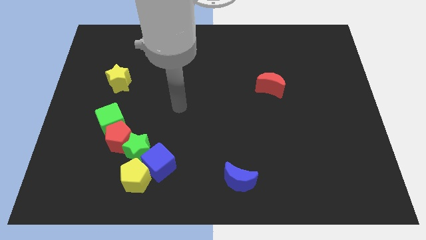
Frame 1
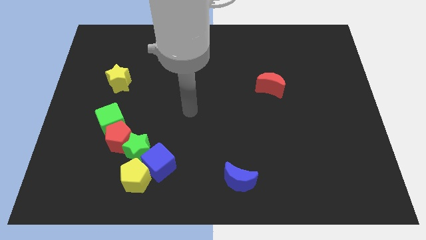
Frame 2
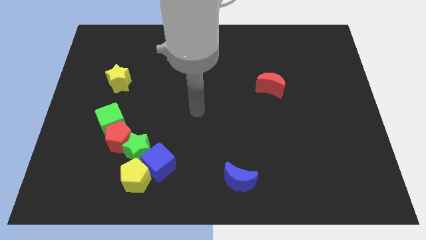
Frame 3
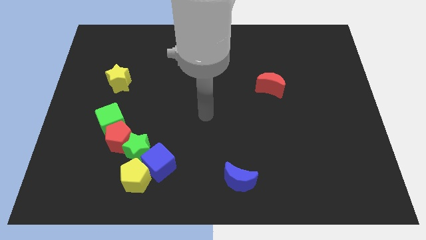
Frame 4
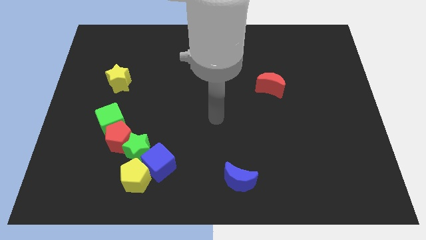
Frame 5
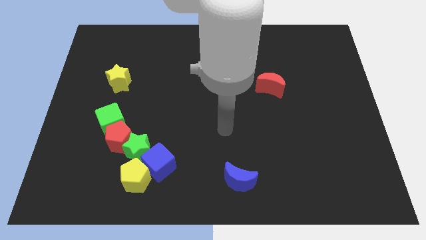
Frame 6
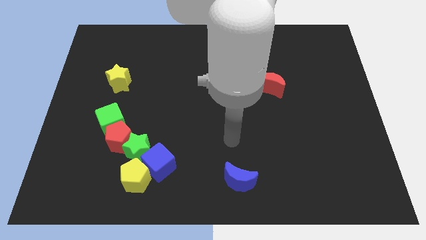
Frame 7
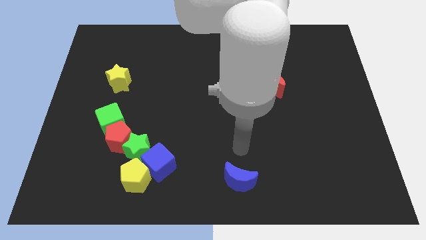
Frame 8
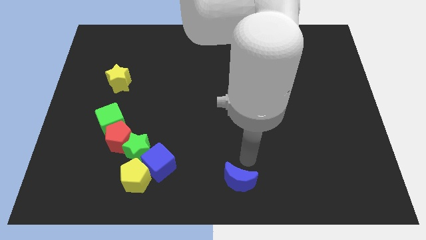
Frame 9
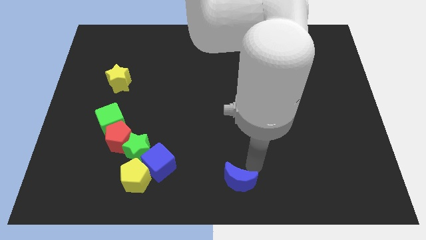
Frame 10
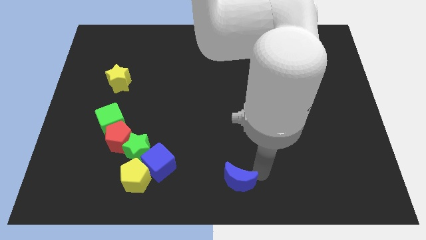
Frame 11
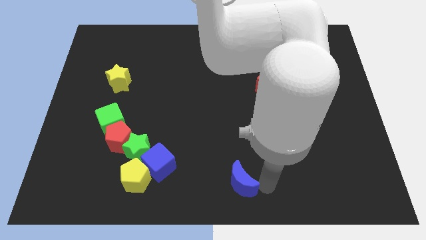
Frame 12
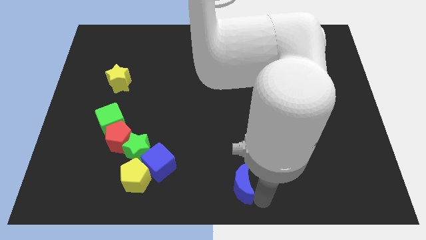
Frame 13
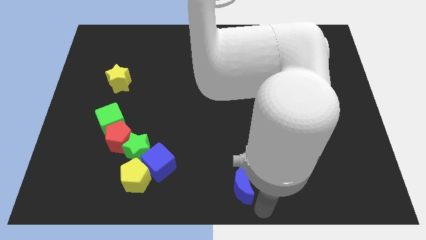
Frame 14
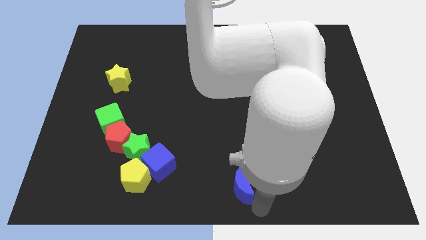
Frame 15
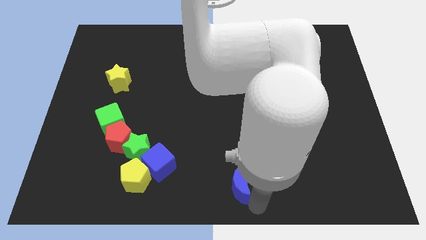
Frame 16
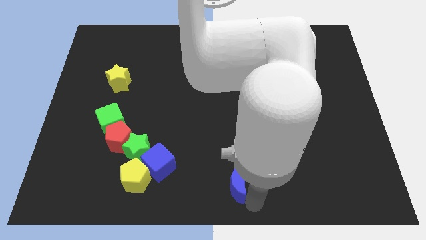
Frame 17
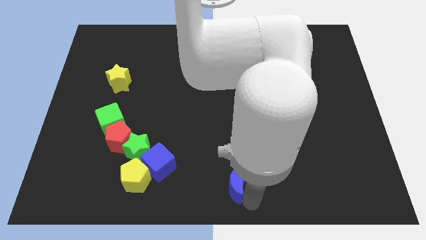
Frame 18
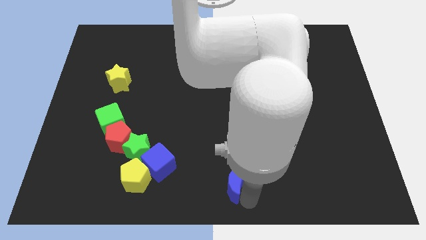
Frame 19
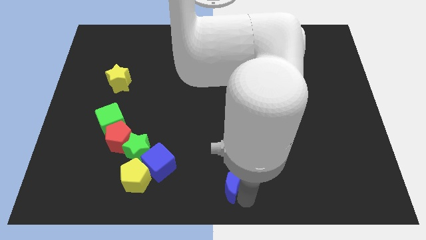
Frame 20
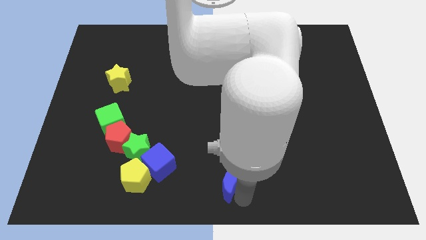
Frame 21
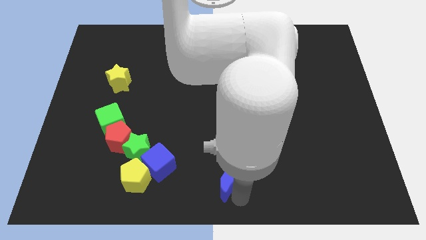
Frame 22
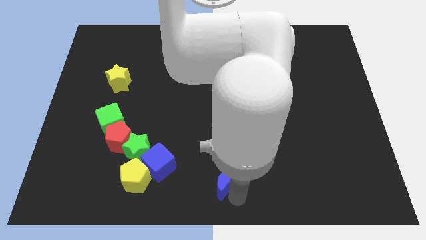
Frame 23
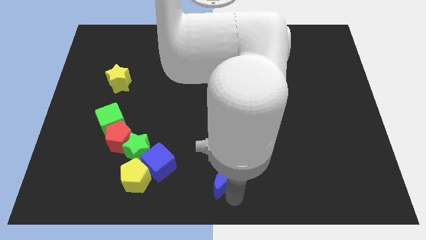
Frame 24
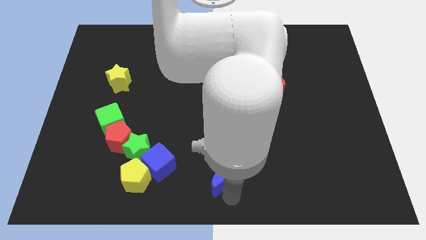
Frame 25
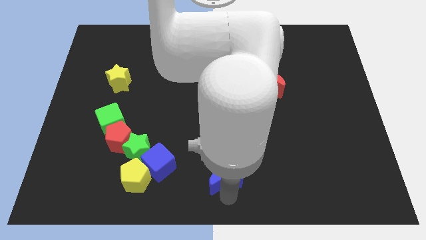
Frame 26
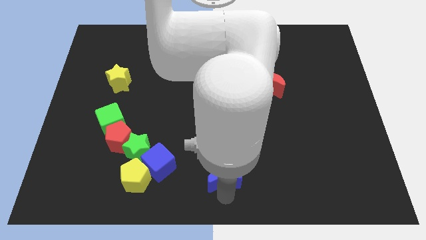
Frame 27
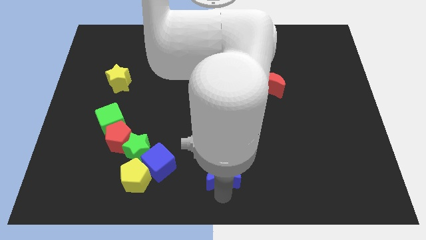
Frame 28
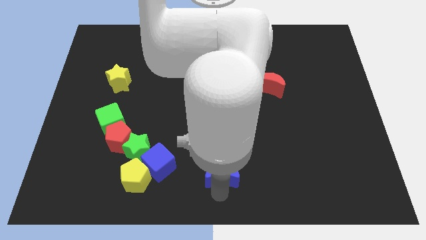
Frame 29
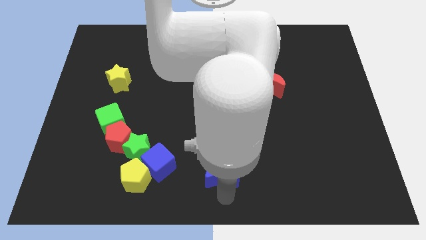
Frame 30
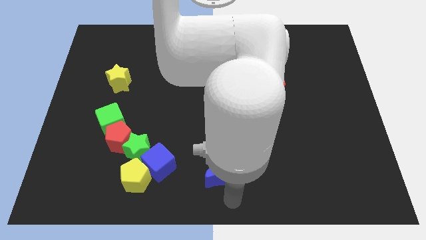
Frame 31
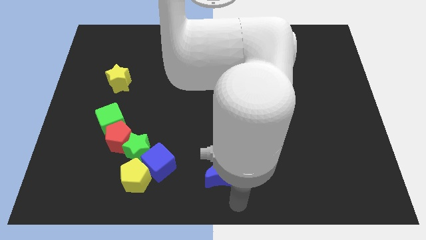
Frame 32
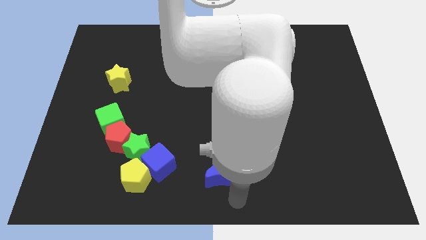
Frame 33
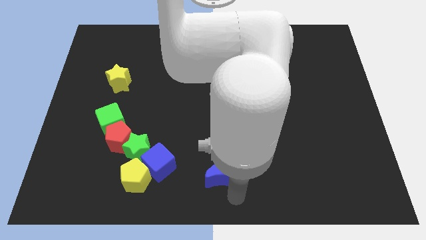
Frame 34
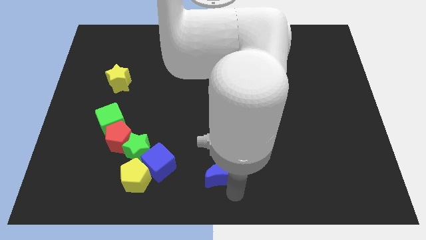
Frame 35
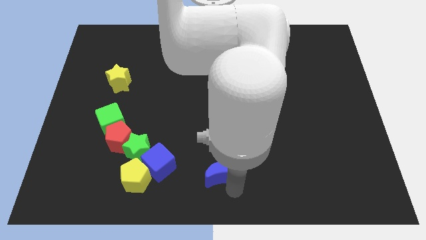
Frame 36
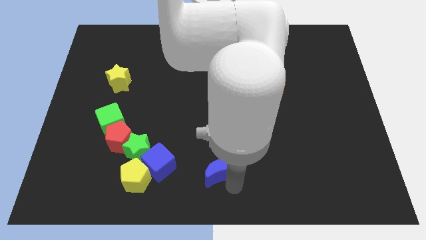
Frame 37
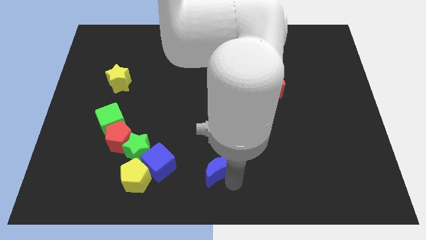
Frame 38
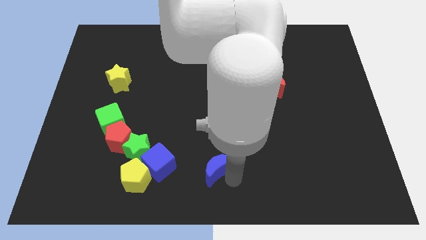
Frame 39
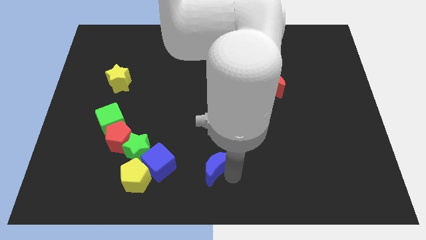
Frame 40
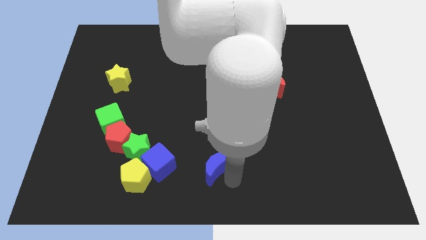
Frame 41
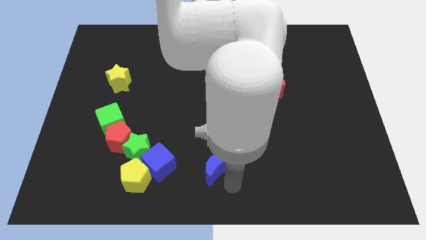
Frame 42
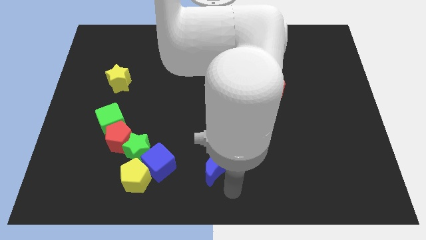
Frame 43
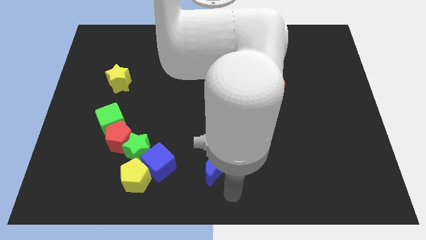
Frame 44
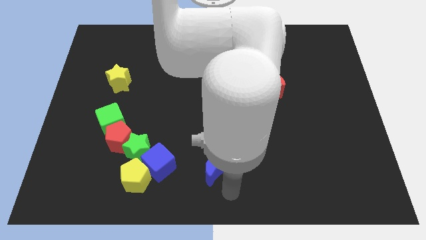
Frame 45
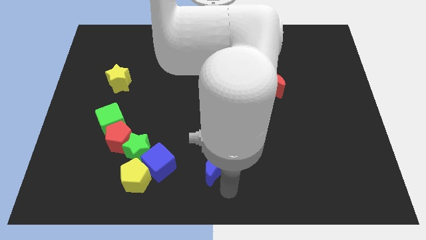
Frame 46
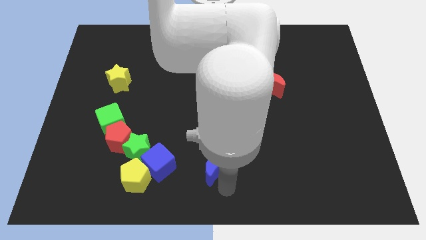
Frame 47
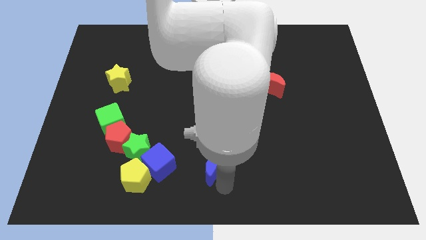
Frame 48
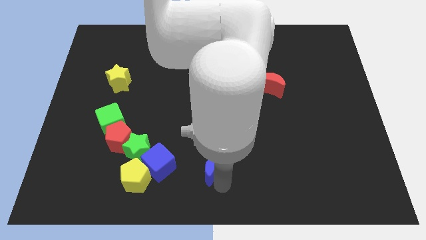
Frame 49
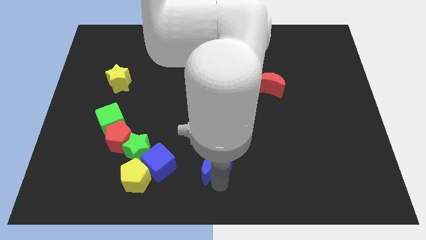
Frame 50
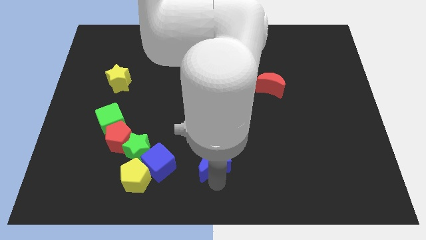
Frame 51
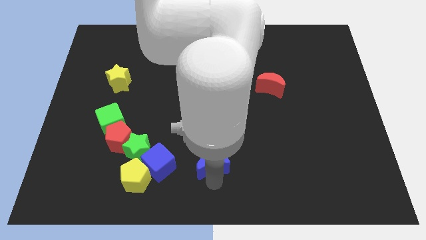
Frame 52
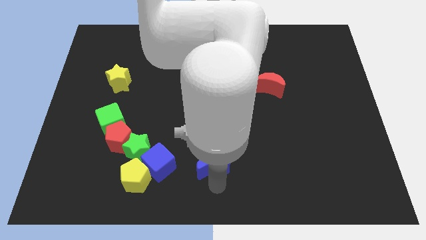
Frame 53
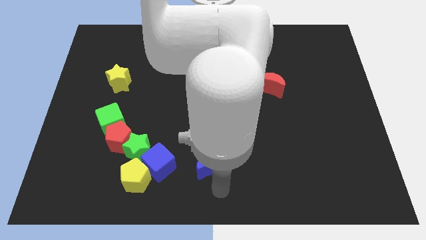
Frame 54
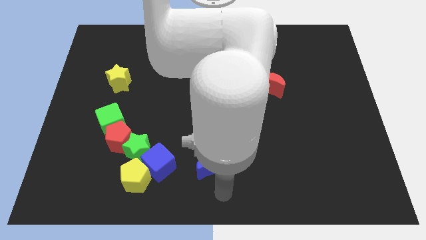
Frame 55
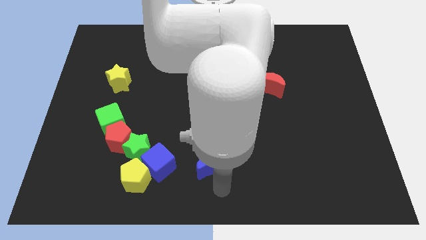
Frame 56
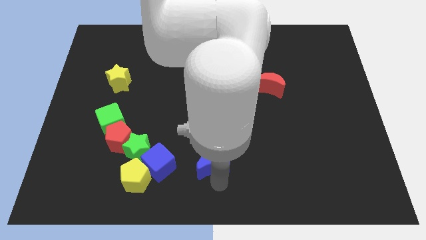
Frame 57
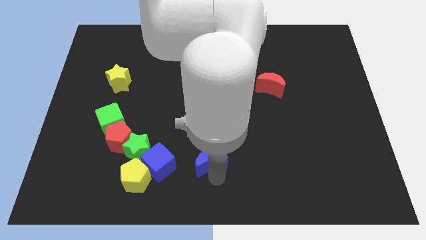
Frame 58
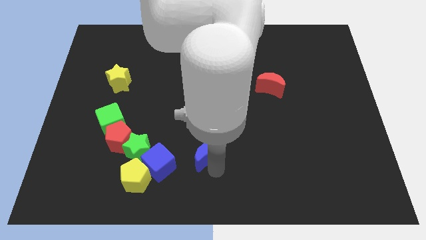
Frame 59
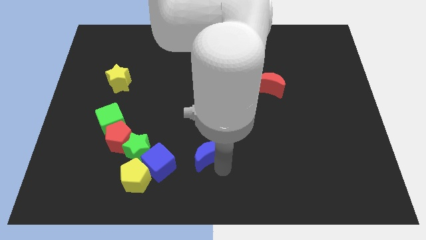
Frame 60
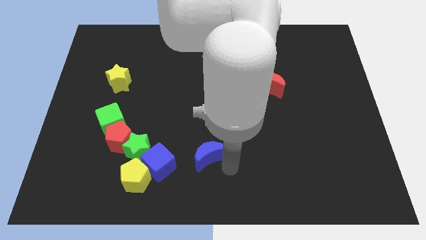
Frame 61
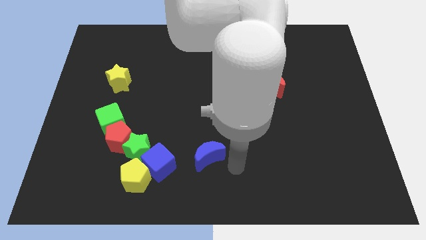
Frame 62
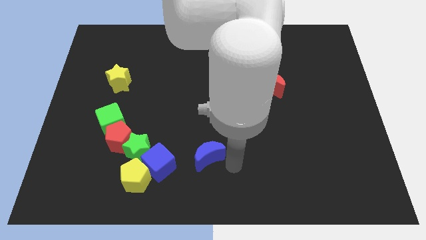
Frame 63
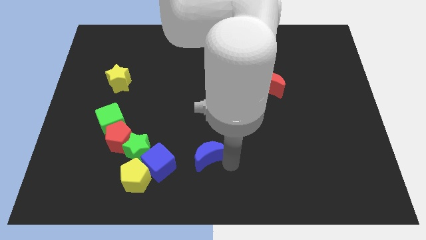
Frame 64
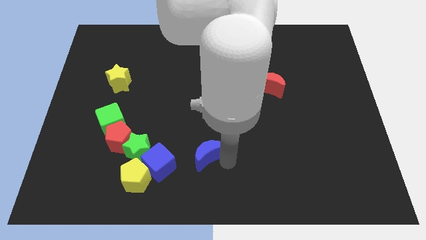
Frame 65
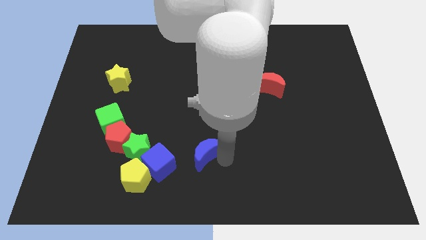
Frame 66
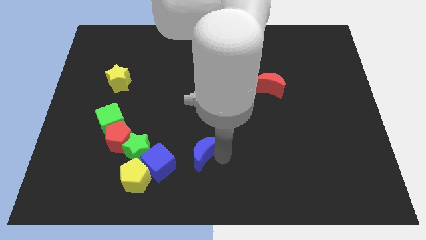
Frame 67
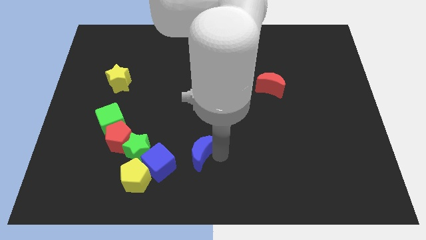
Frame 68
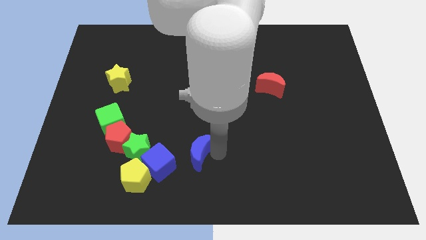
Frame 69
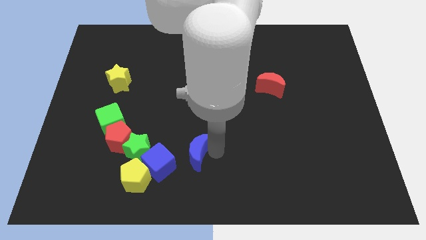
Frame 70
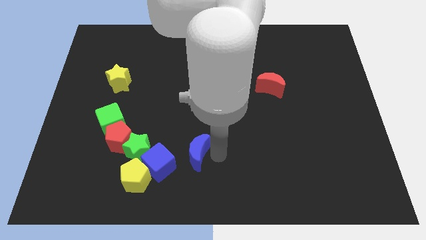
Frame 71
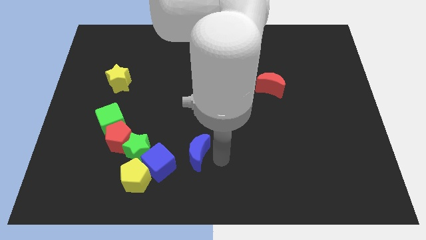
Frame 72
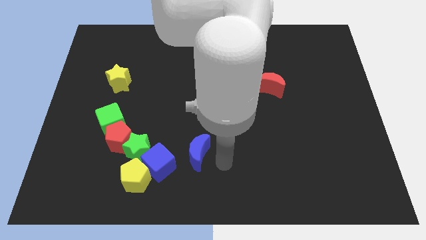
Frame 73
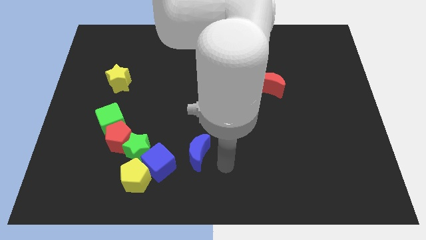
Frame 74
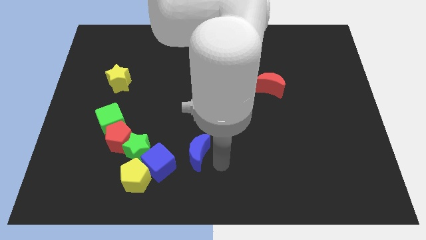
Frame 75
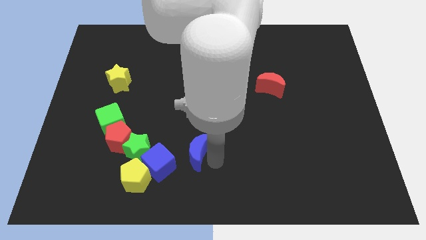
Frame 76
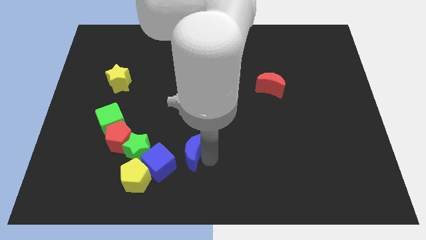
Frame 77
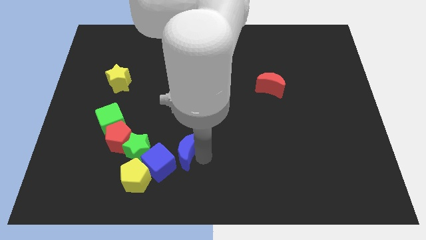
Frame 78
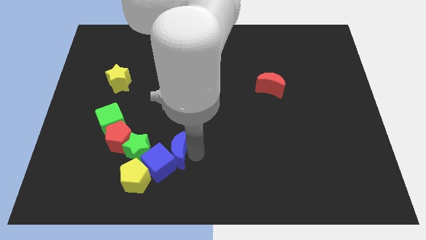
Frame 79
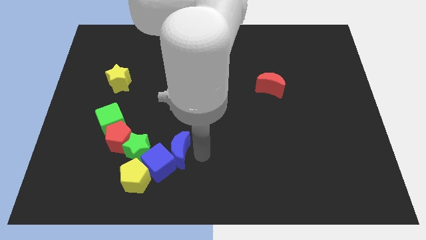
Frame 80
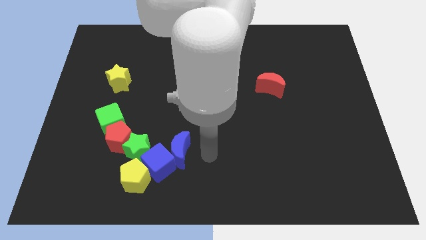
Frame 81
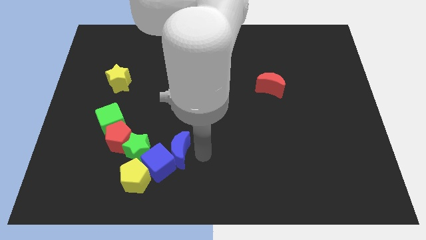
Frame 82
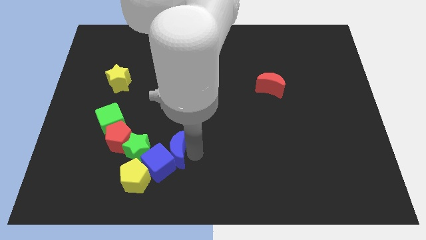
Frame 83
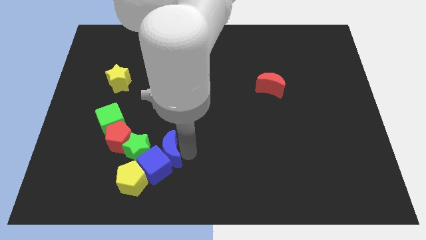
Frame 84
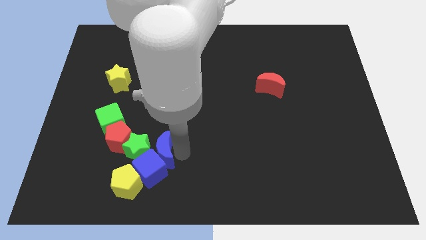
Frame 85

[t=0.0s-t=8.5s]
slide the blue moon towards the green star
